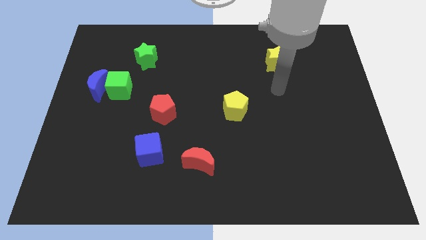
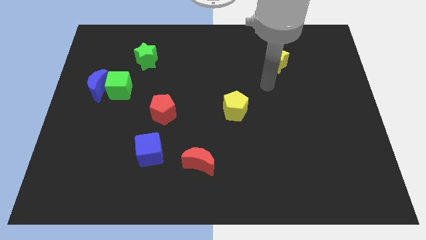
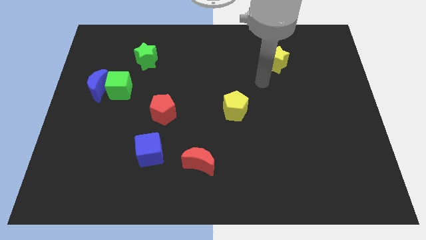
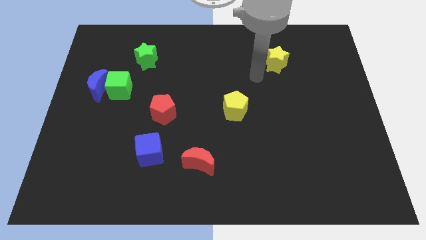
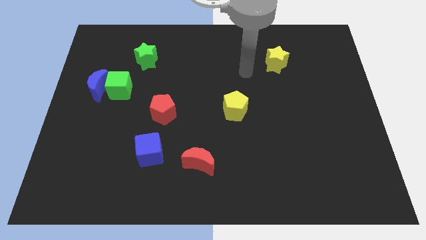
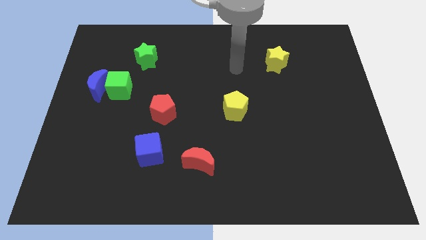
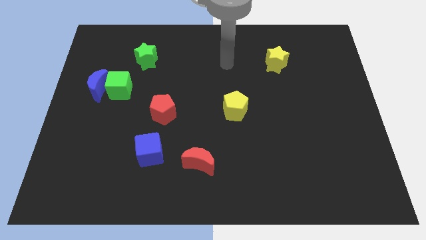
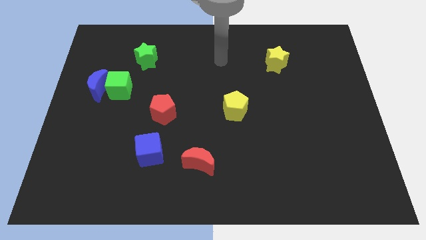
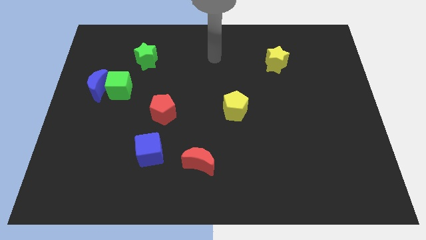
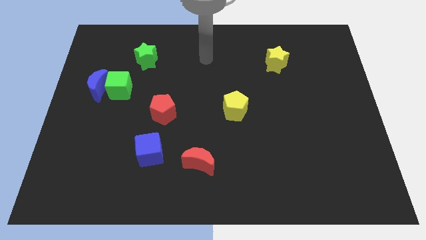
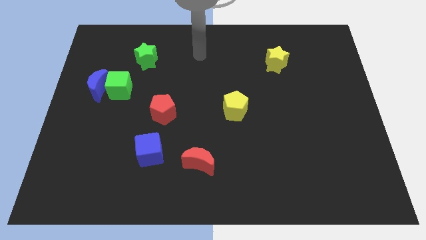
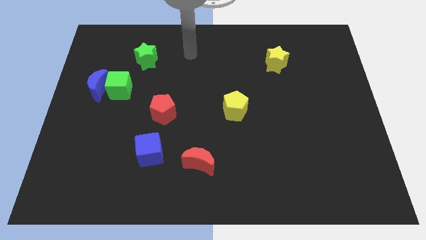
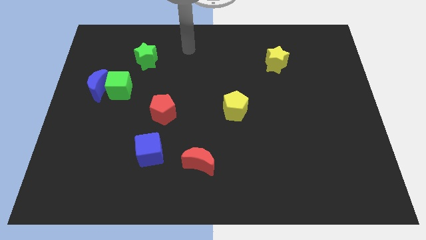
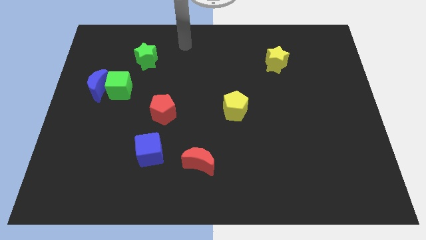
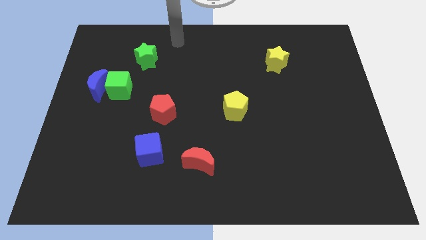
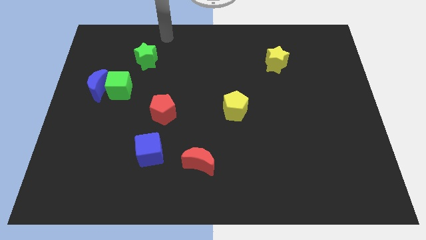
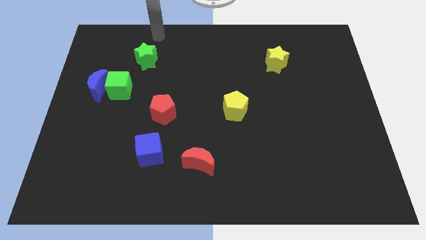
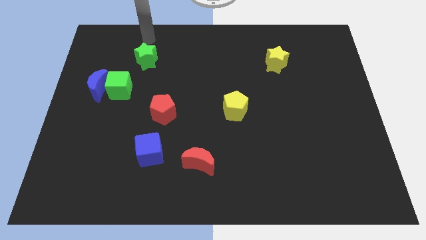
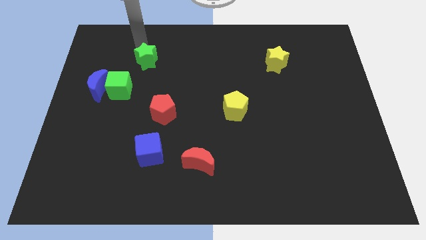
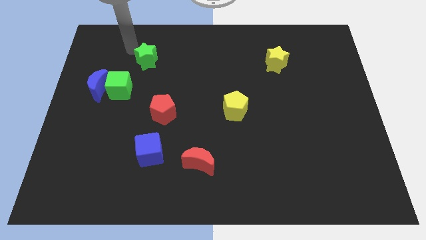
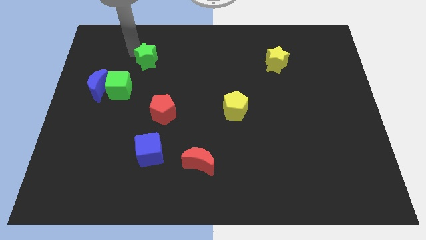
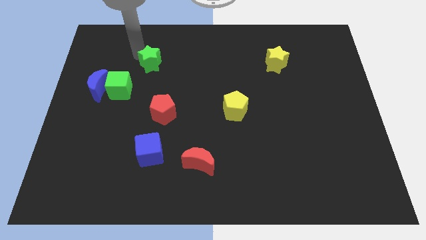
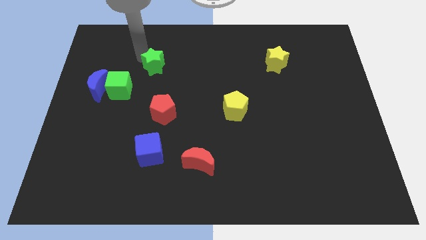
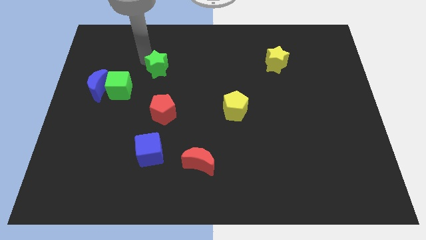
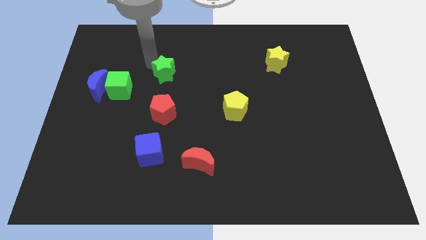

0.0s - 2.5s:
push the green star downwards and right diagonally a bit

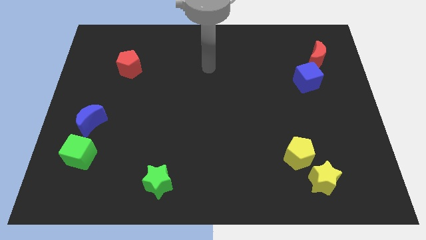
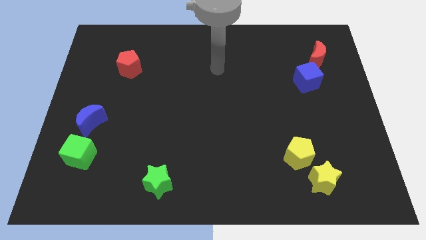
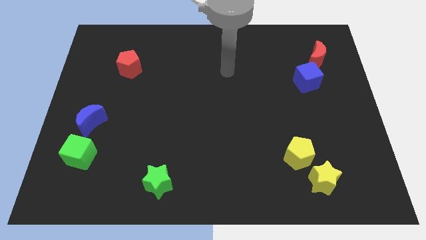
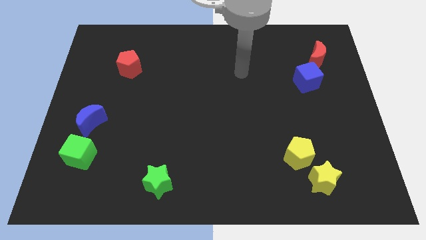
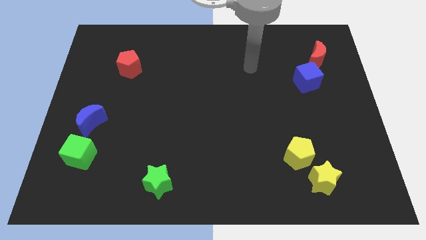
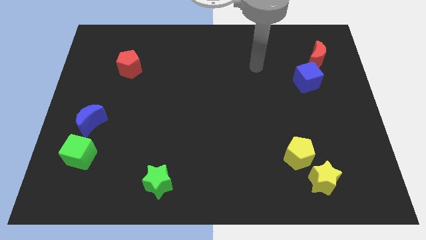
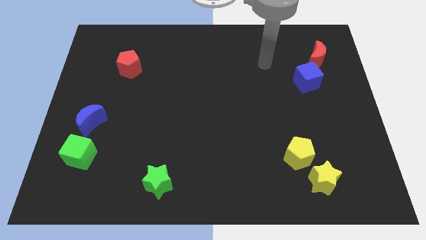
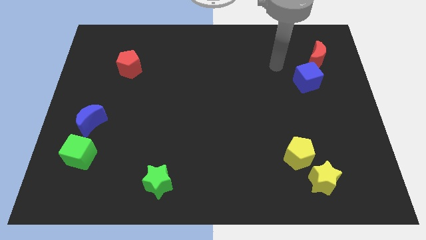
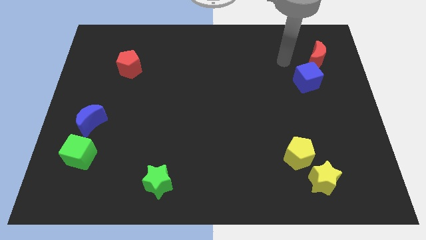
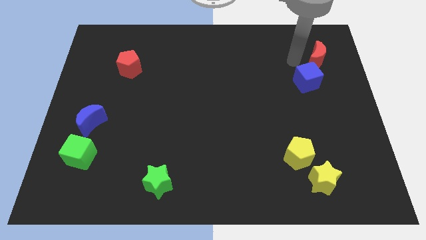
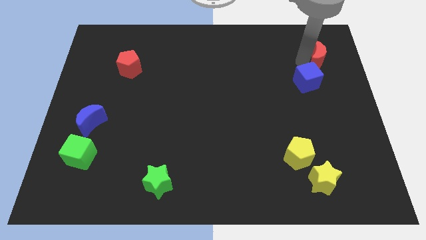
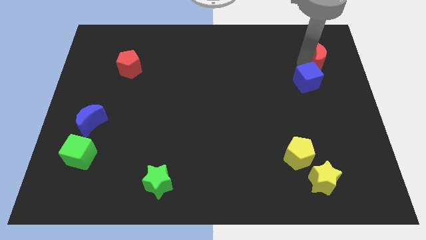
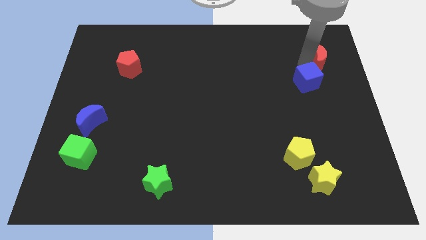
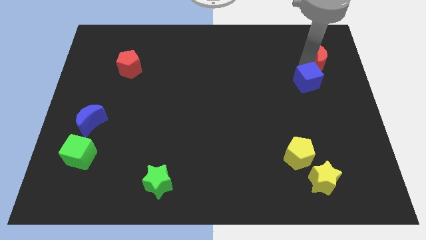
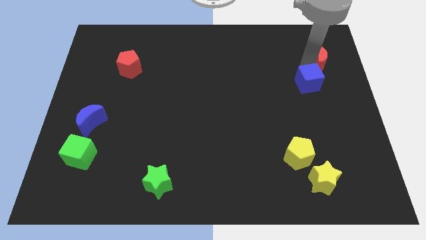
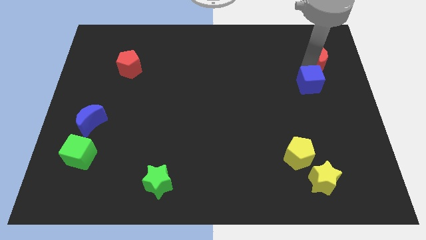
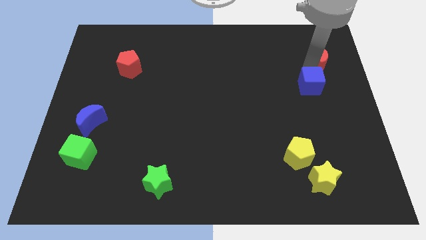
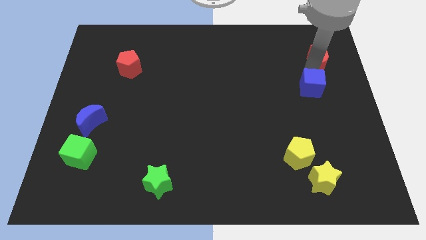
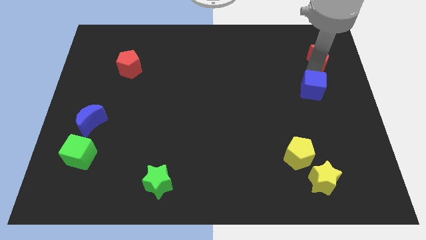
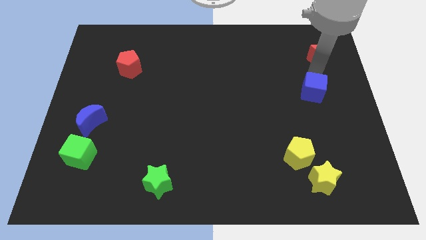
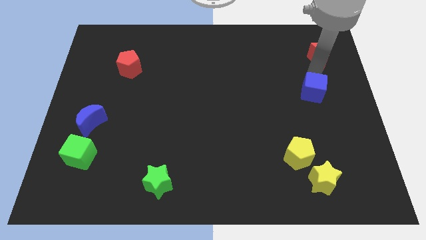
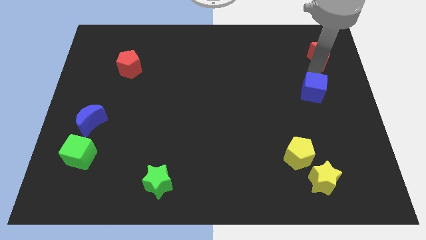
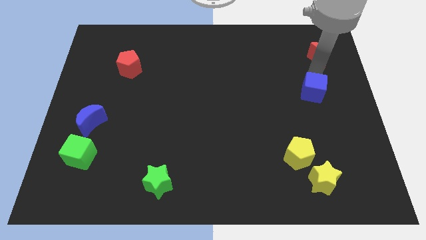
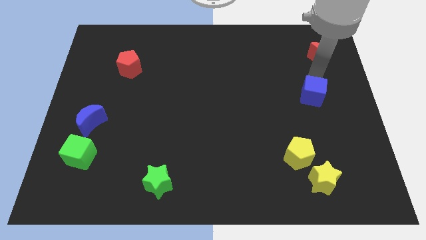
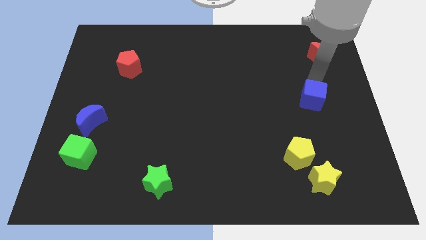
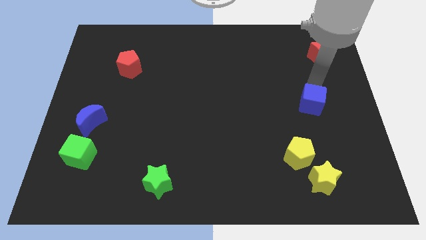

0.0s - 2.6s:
push the blue cube somewhat down

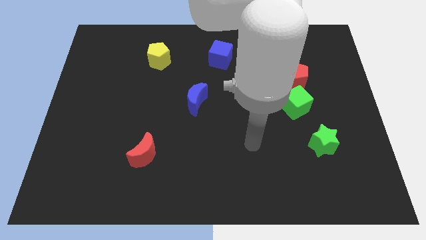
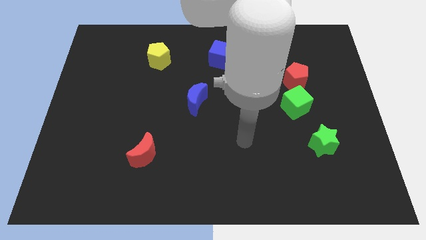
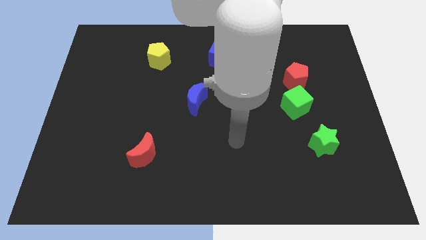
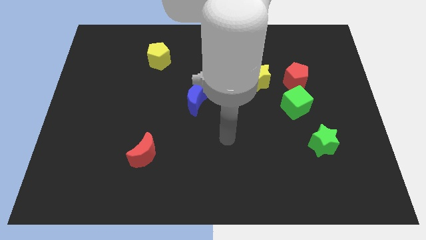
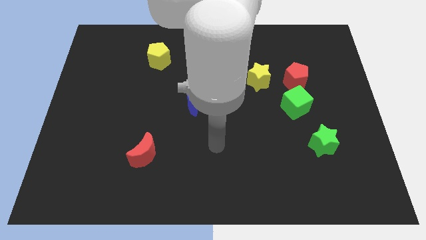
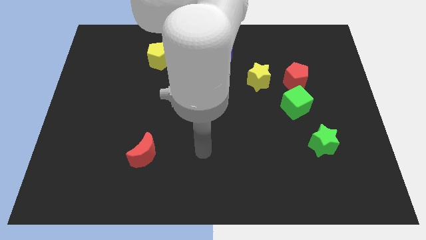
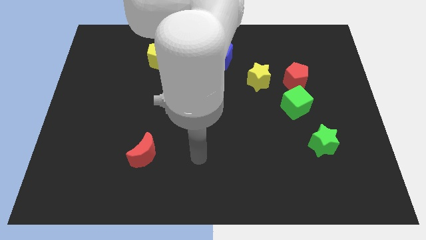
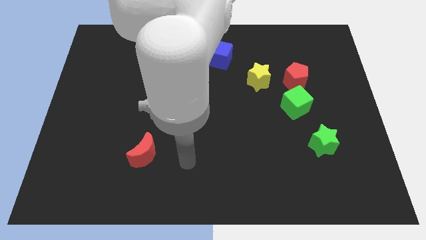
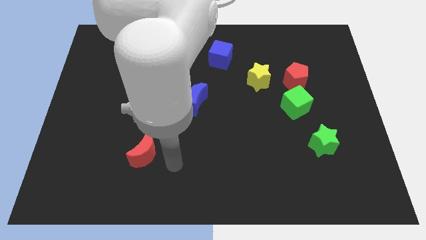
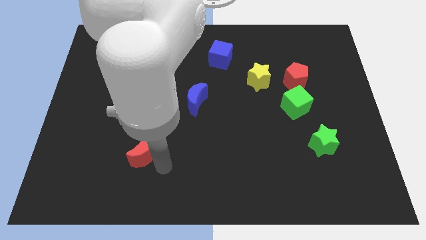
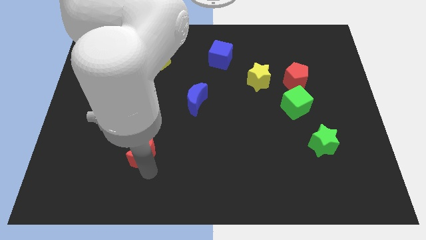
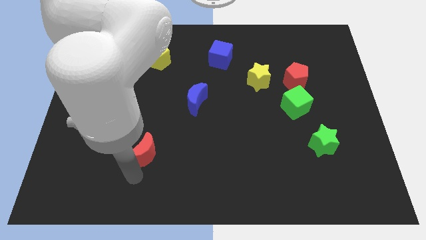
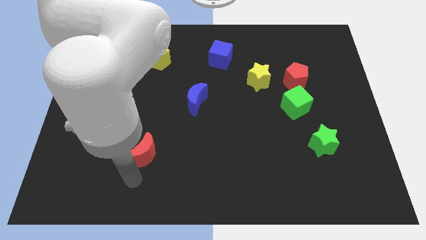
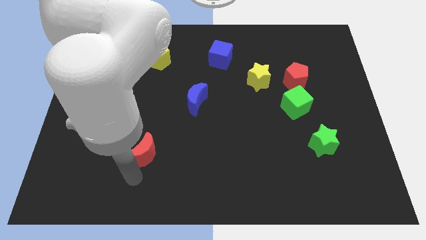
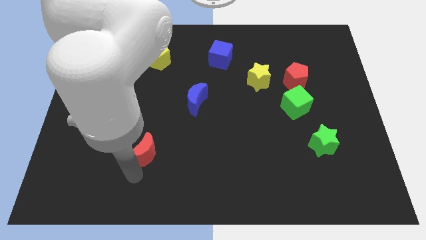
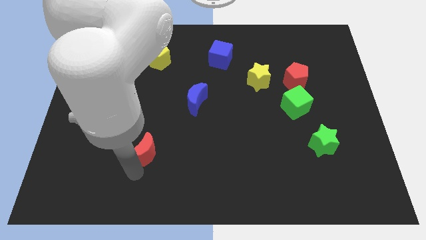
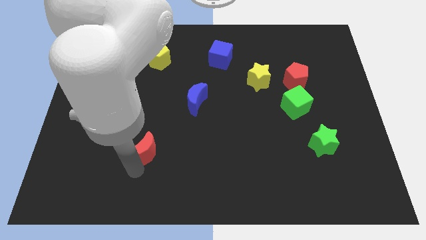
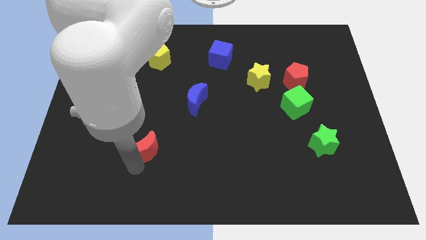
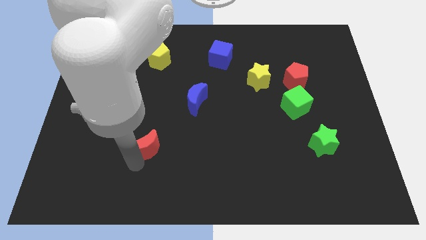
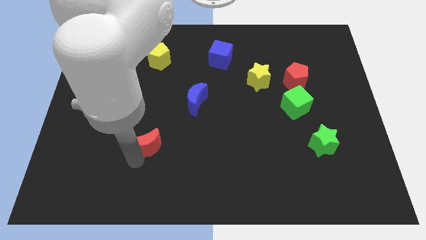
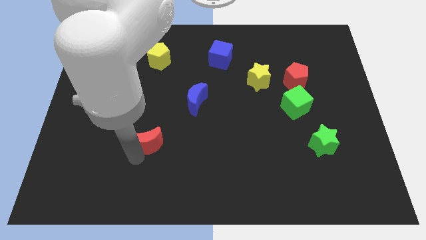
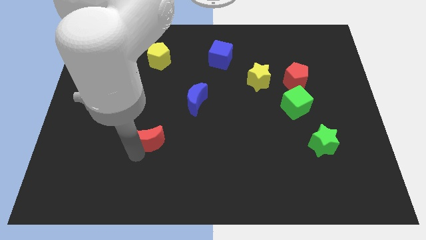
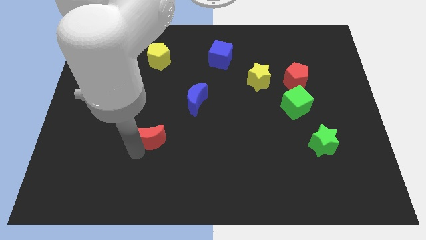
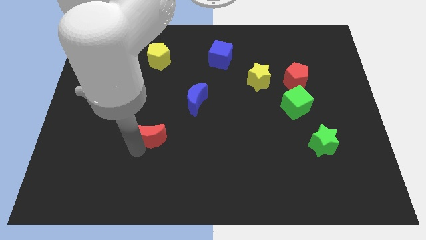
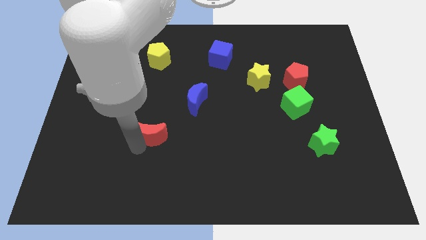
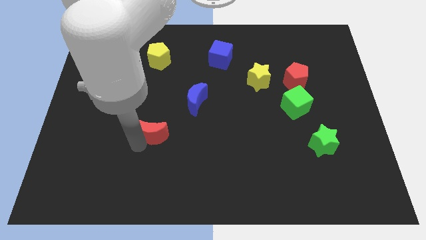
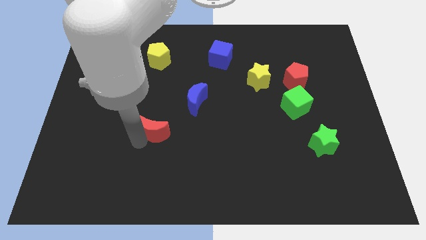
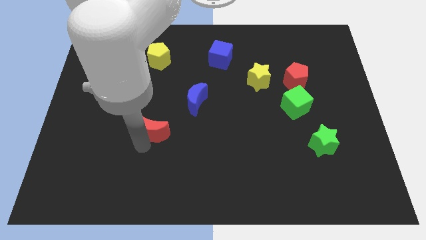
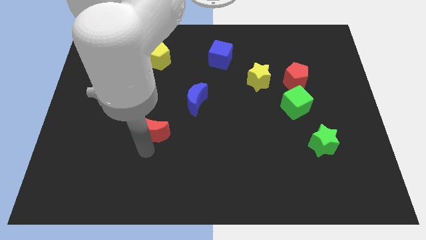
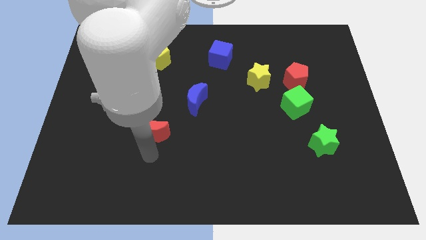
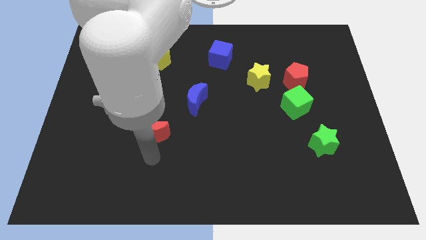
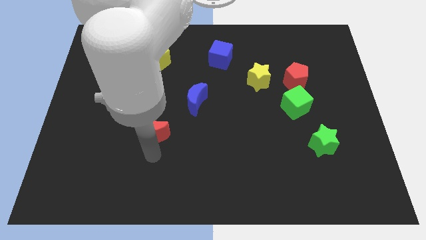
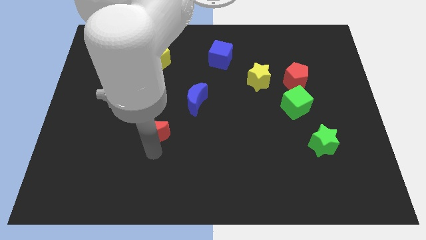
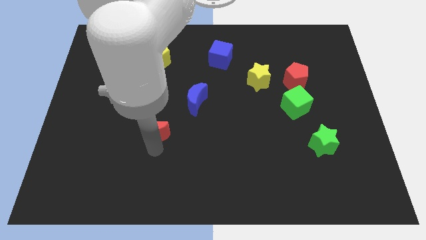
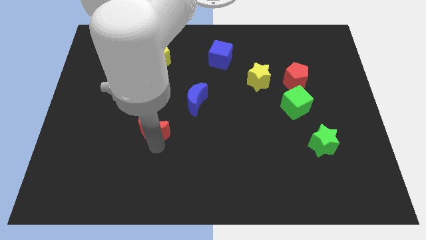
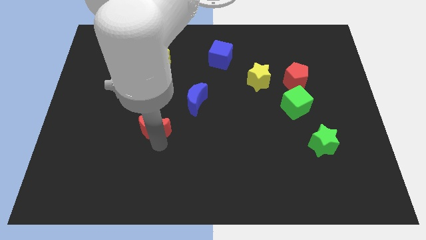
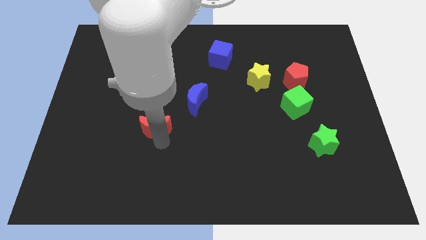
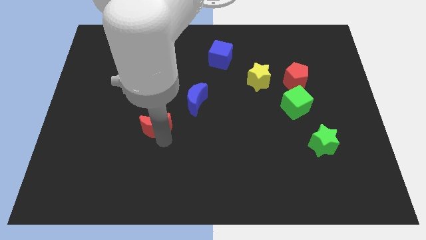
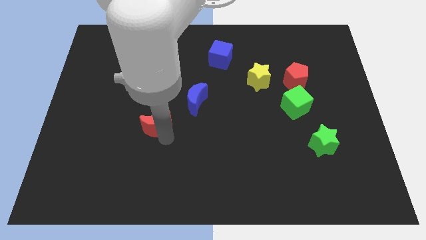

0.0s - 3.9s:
move the red moon a little bit upwards
